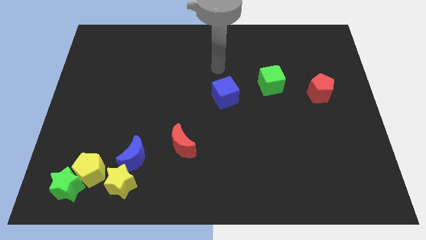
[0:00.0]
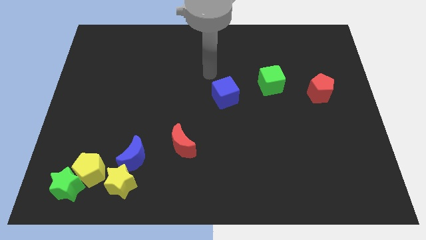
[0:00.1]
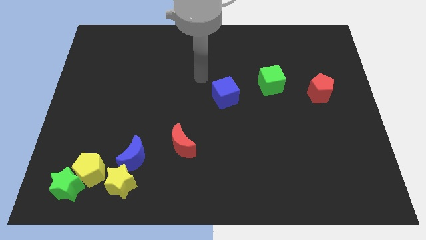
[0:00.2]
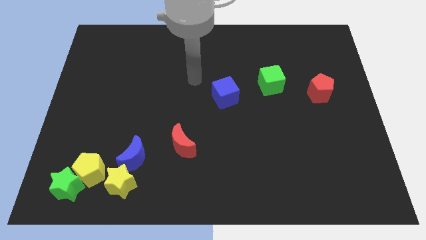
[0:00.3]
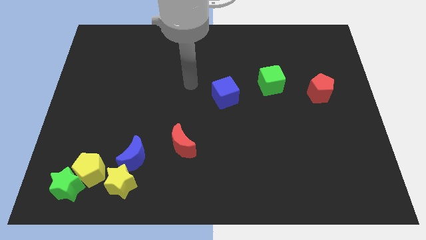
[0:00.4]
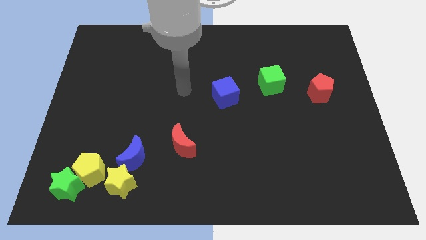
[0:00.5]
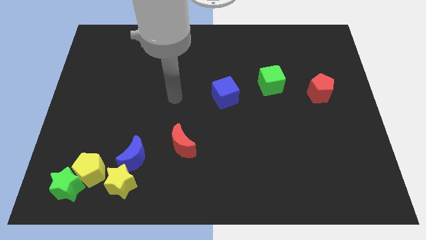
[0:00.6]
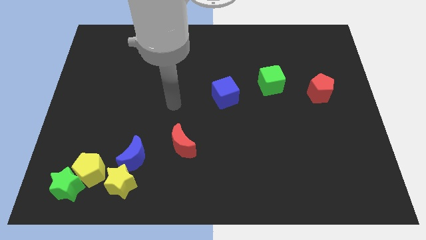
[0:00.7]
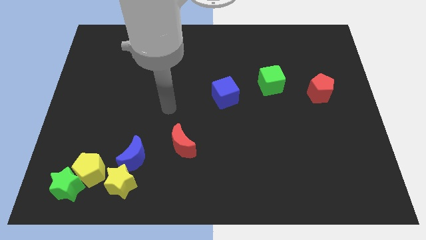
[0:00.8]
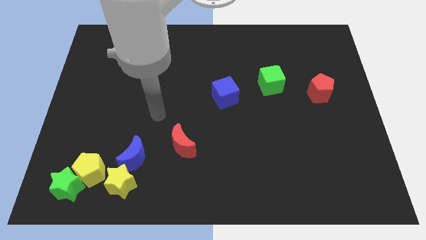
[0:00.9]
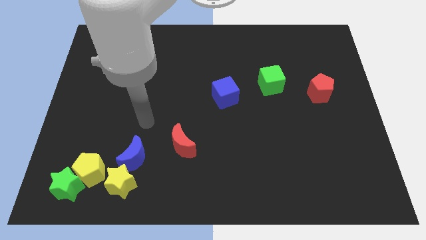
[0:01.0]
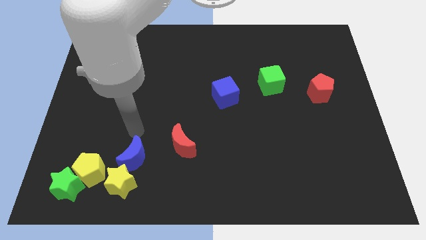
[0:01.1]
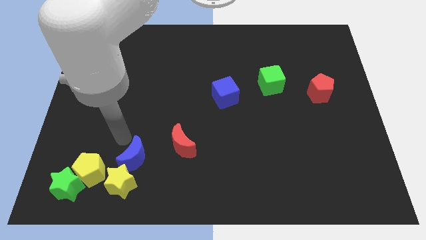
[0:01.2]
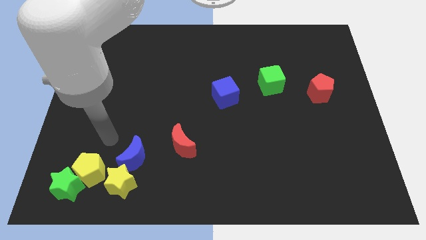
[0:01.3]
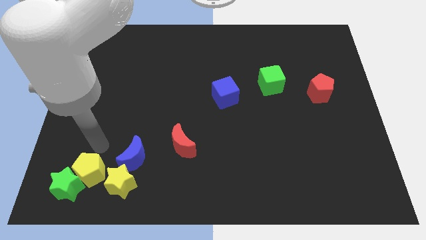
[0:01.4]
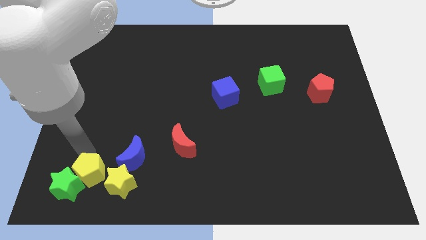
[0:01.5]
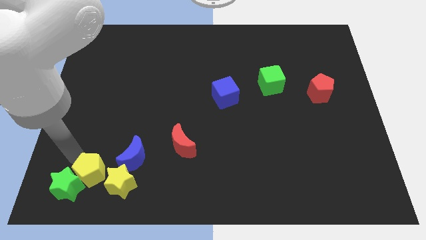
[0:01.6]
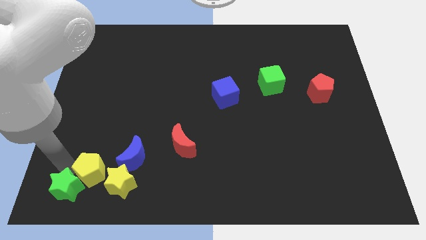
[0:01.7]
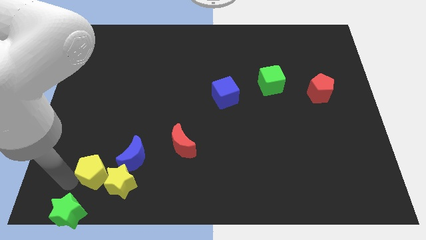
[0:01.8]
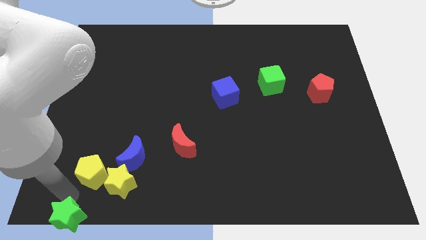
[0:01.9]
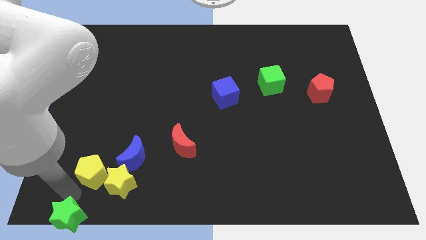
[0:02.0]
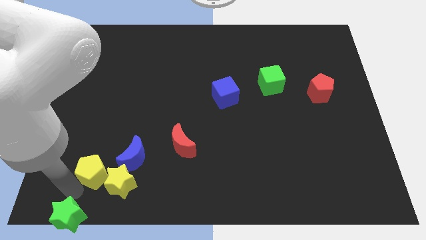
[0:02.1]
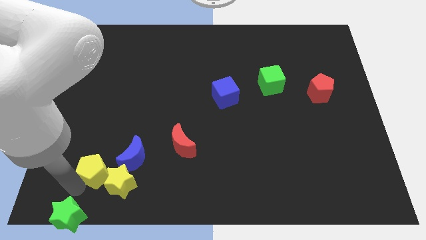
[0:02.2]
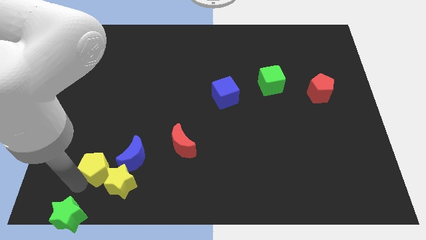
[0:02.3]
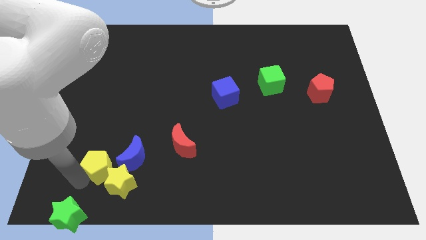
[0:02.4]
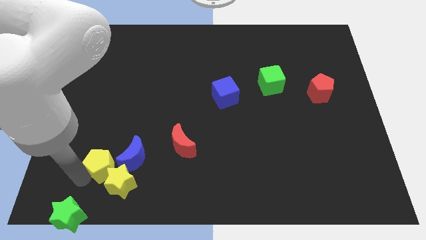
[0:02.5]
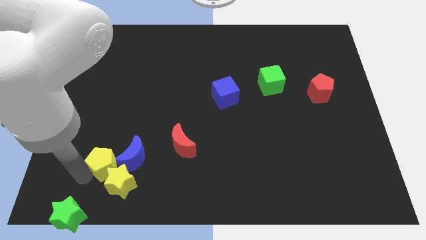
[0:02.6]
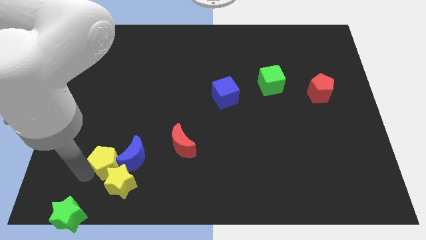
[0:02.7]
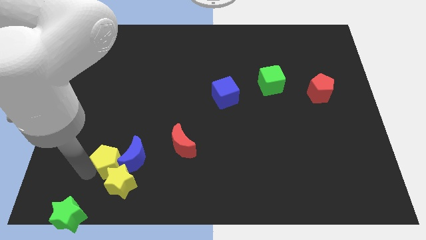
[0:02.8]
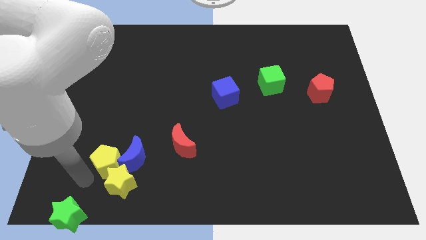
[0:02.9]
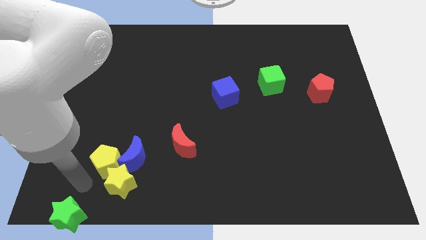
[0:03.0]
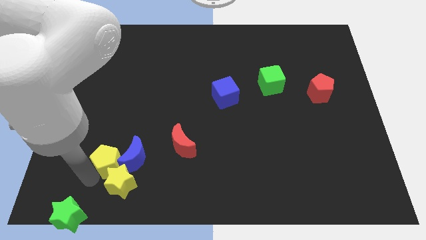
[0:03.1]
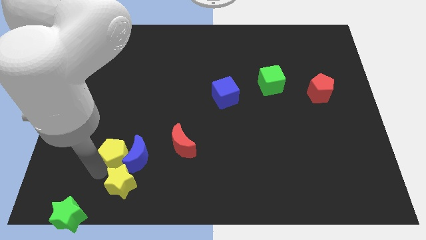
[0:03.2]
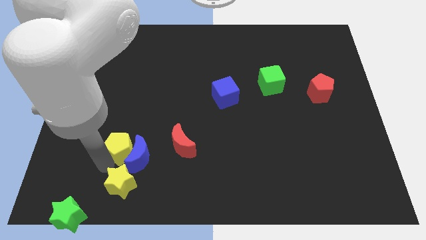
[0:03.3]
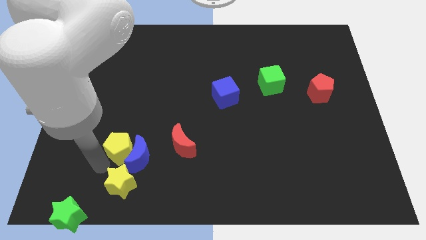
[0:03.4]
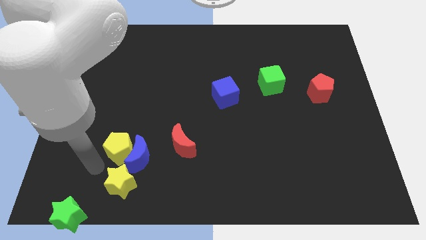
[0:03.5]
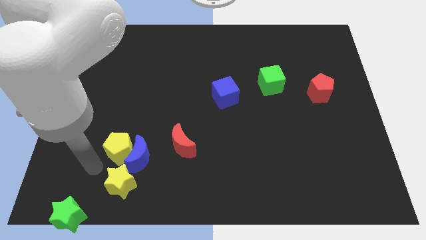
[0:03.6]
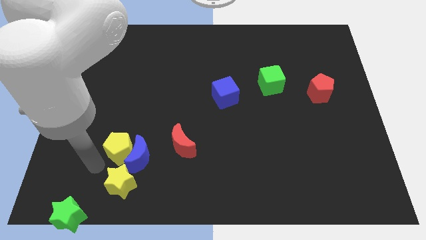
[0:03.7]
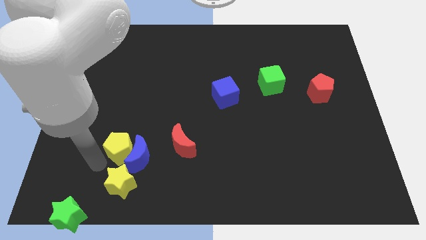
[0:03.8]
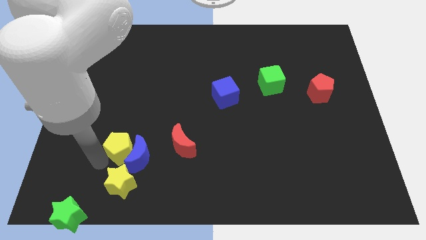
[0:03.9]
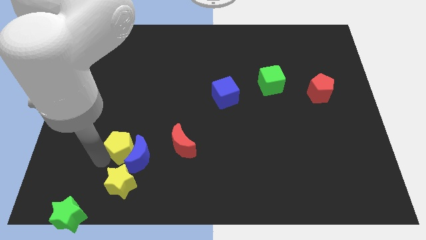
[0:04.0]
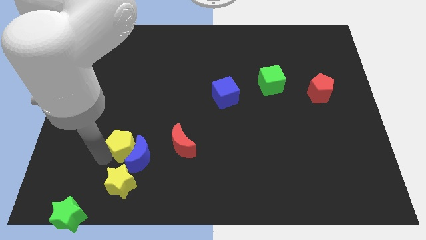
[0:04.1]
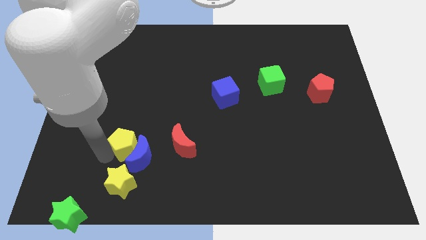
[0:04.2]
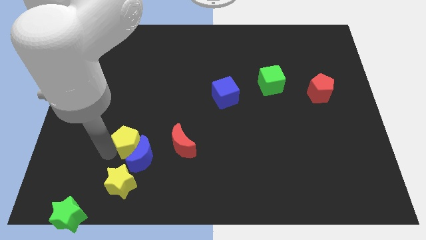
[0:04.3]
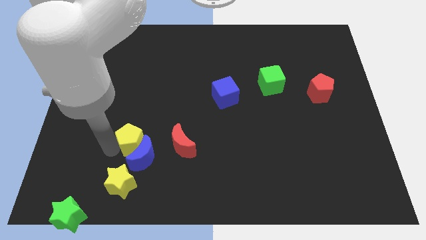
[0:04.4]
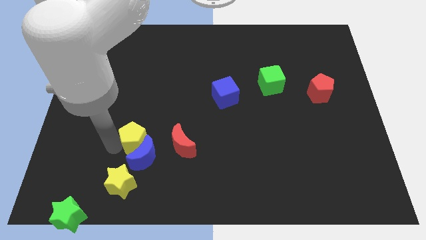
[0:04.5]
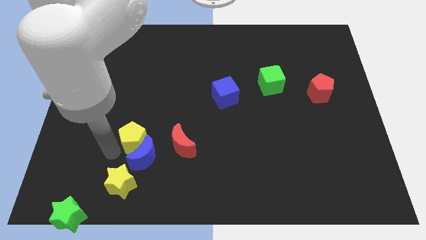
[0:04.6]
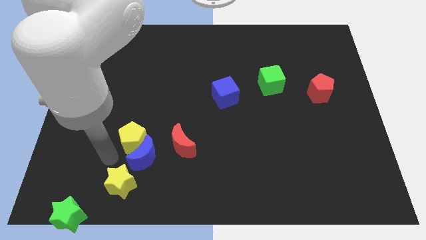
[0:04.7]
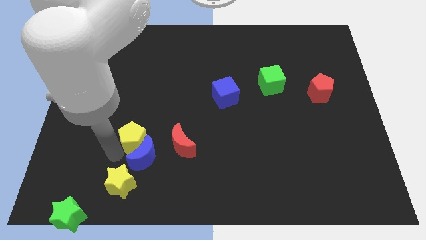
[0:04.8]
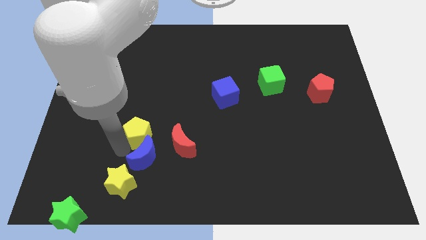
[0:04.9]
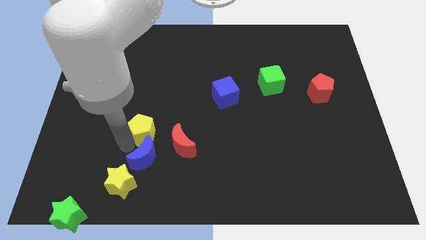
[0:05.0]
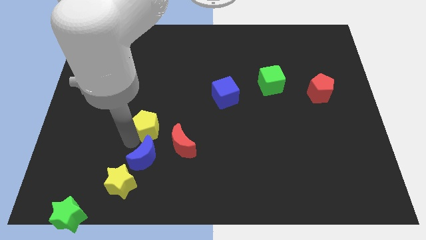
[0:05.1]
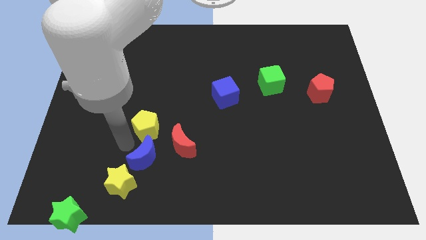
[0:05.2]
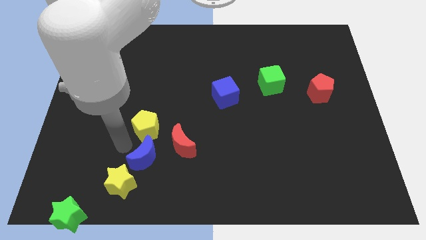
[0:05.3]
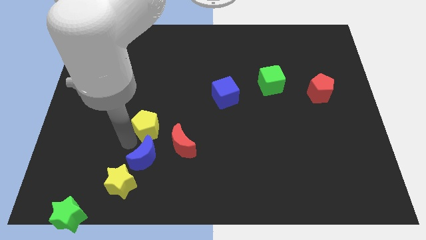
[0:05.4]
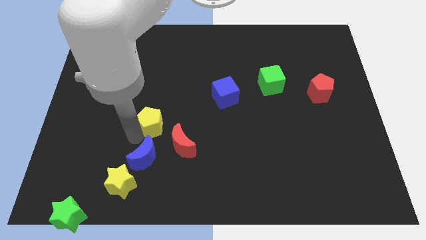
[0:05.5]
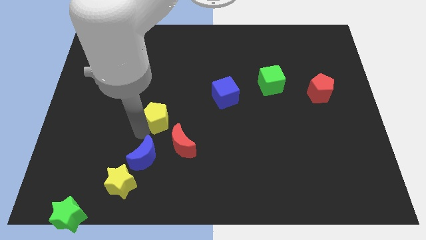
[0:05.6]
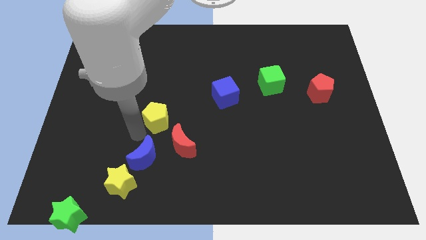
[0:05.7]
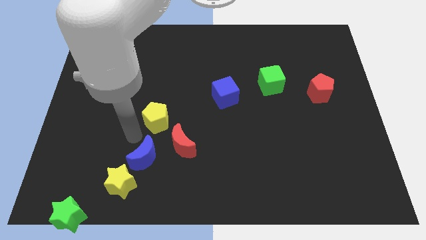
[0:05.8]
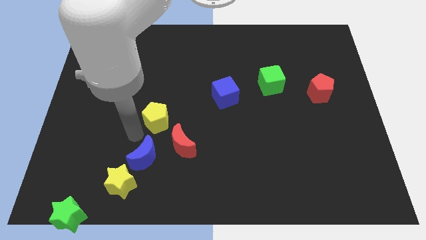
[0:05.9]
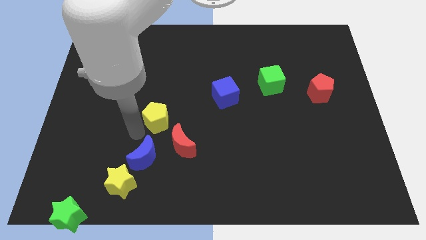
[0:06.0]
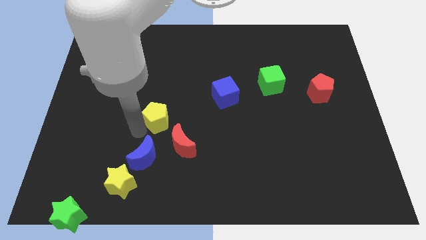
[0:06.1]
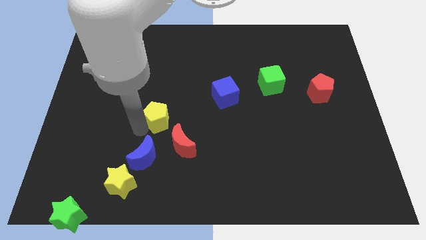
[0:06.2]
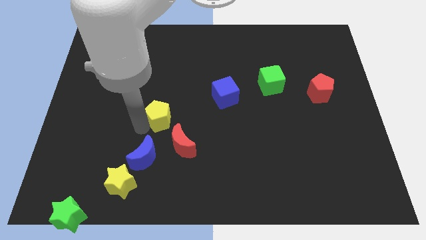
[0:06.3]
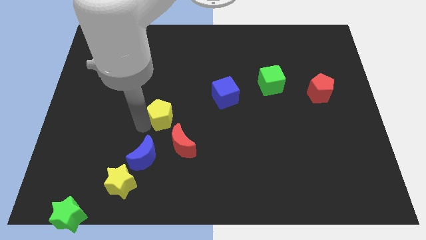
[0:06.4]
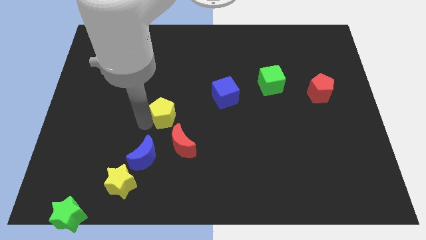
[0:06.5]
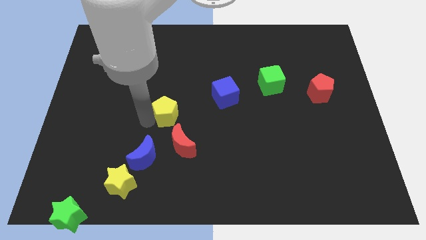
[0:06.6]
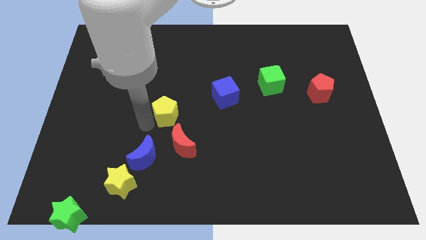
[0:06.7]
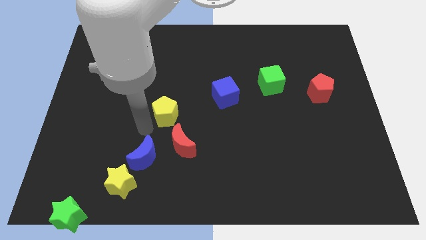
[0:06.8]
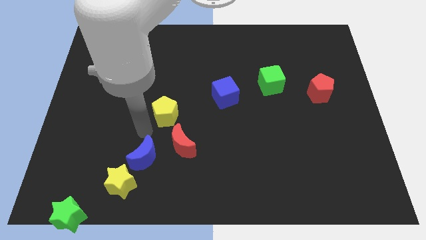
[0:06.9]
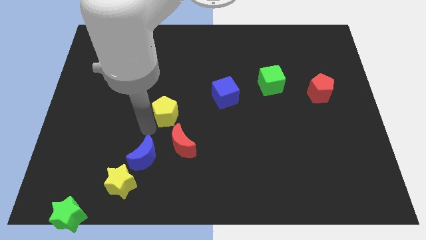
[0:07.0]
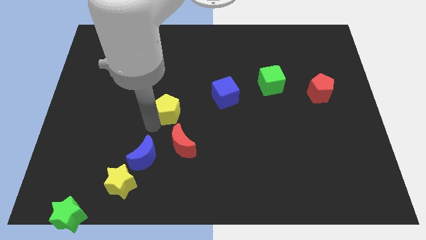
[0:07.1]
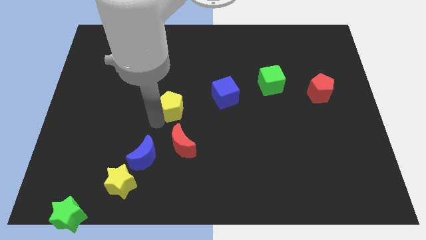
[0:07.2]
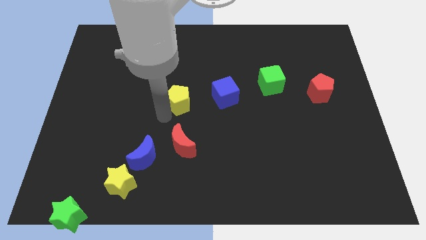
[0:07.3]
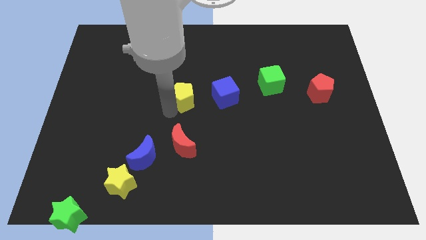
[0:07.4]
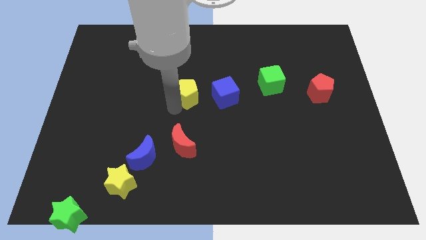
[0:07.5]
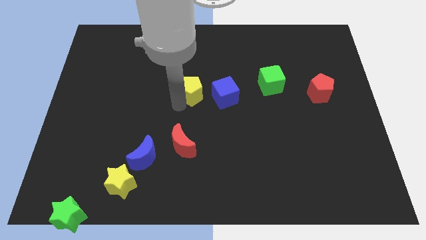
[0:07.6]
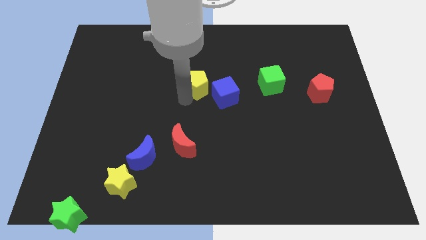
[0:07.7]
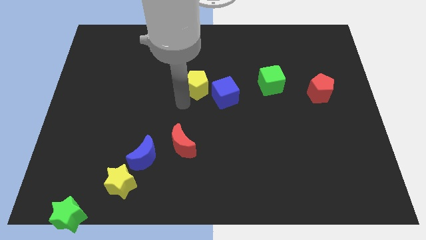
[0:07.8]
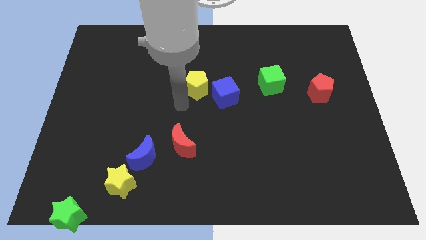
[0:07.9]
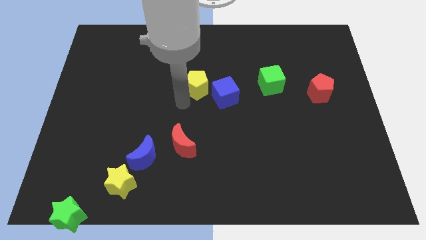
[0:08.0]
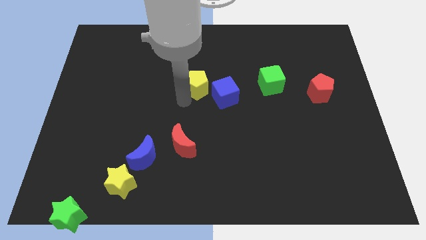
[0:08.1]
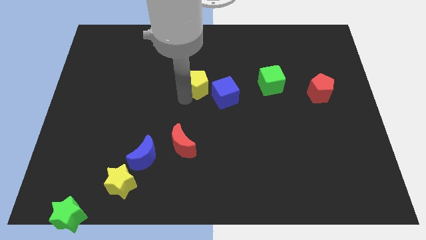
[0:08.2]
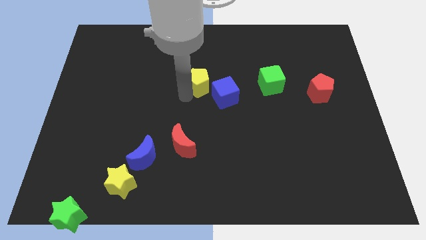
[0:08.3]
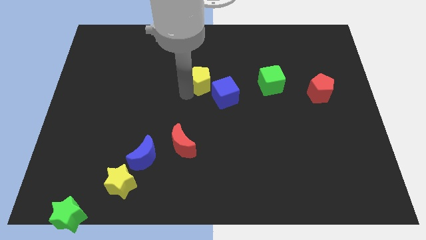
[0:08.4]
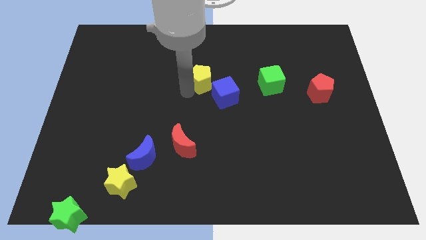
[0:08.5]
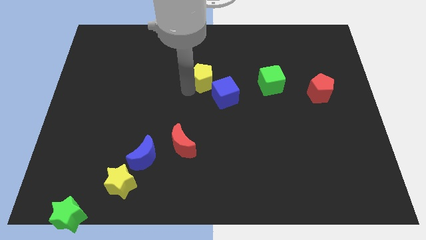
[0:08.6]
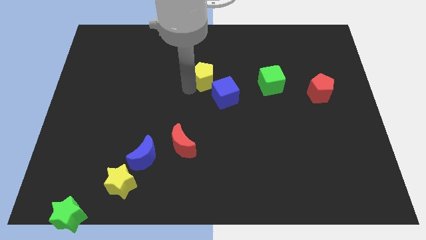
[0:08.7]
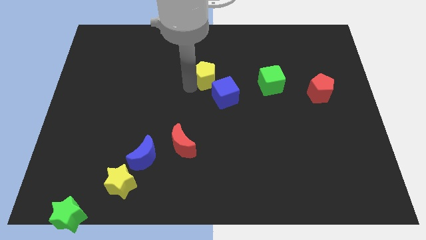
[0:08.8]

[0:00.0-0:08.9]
put the yellow pentagon above the blue cube
